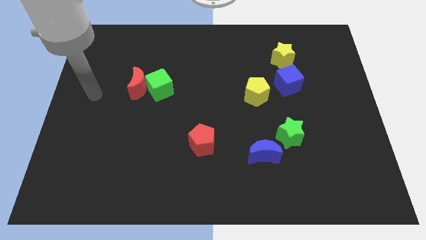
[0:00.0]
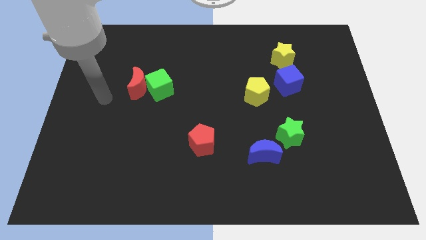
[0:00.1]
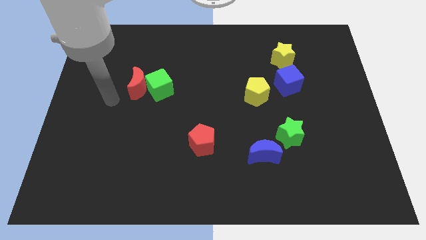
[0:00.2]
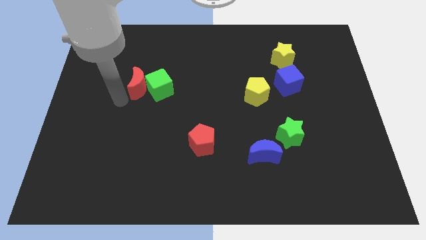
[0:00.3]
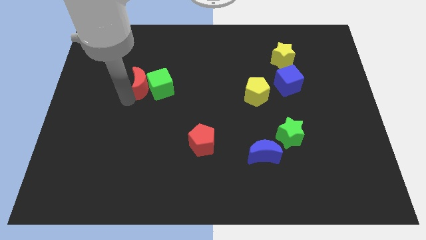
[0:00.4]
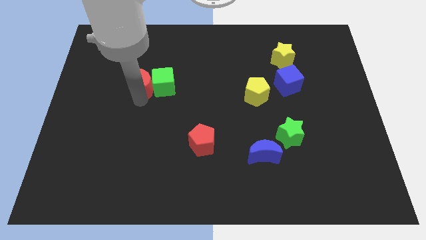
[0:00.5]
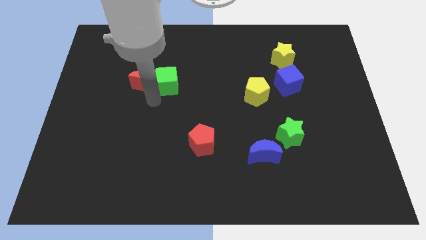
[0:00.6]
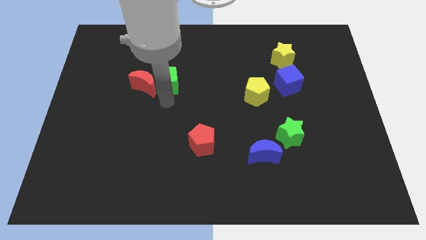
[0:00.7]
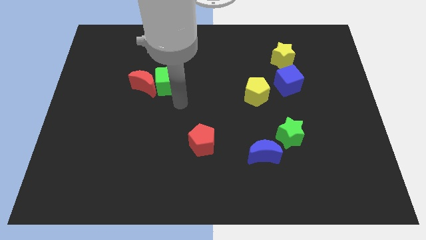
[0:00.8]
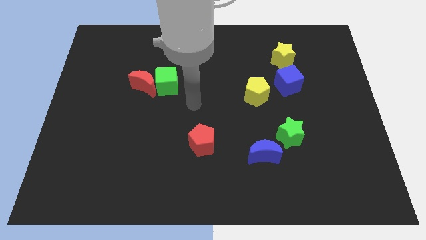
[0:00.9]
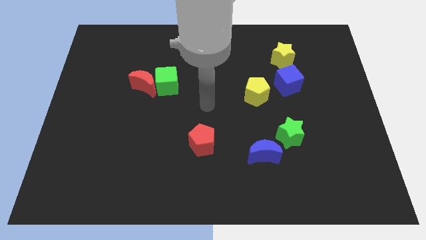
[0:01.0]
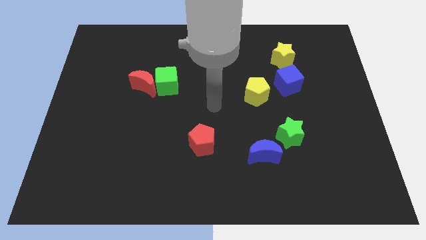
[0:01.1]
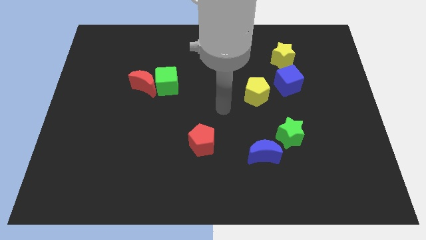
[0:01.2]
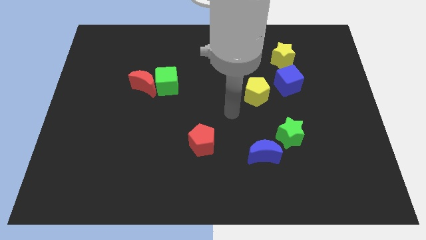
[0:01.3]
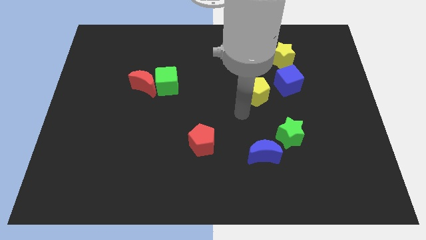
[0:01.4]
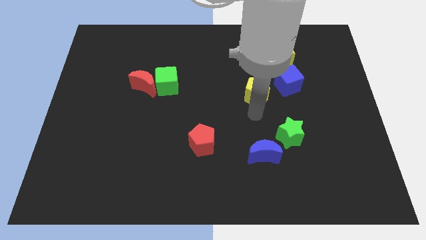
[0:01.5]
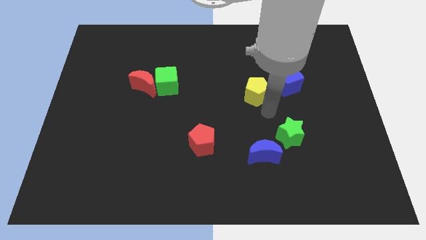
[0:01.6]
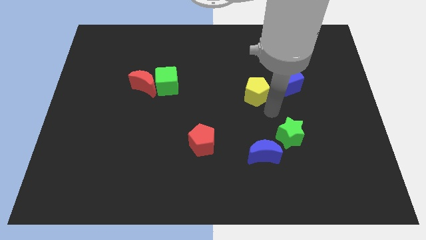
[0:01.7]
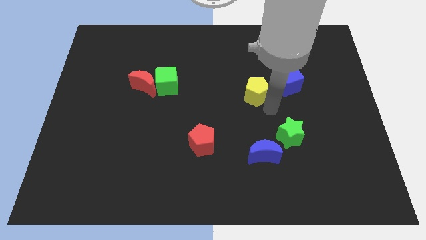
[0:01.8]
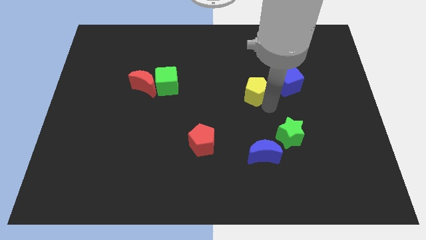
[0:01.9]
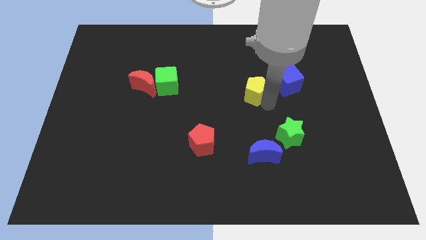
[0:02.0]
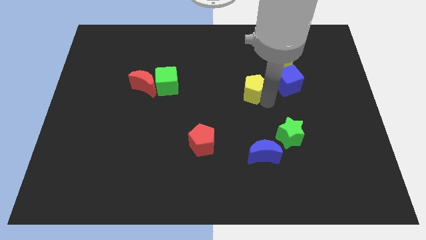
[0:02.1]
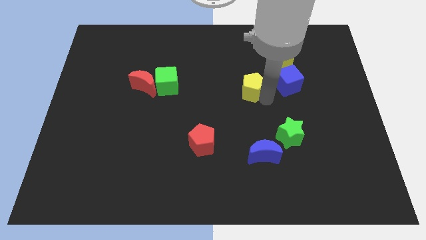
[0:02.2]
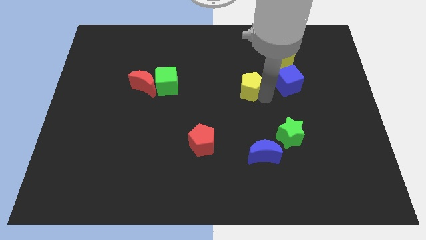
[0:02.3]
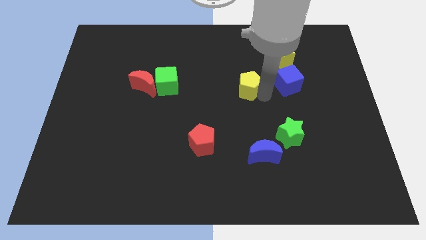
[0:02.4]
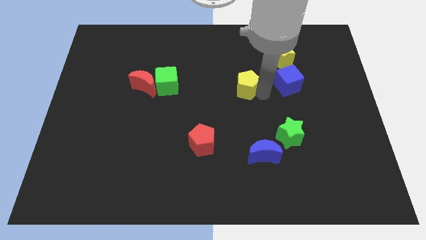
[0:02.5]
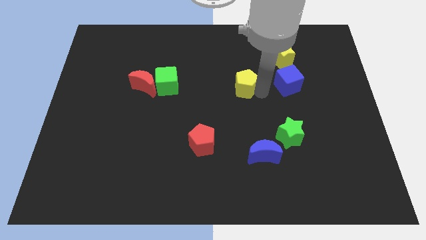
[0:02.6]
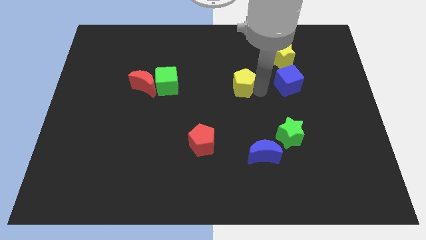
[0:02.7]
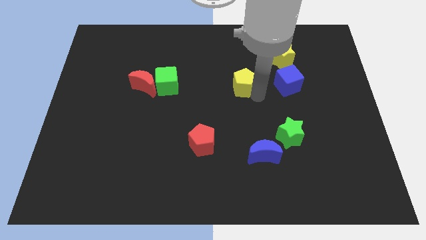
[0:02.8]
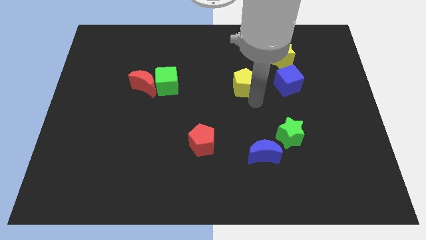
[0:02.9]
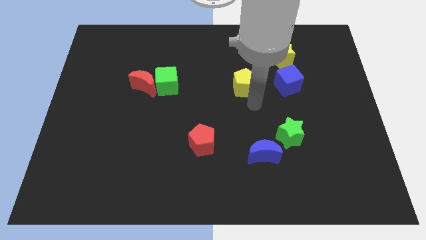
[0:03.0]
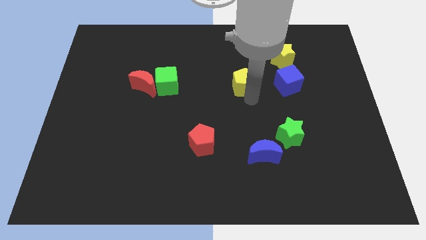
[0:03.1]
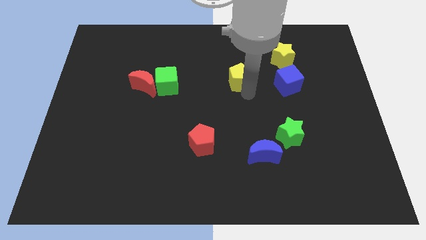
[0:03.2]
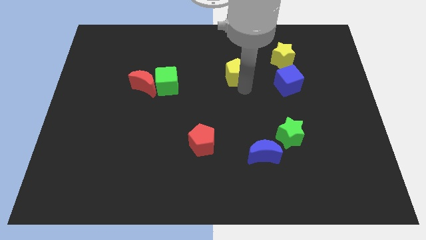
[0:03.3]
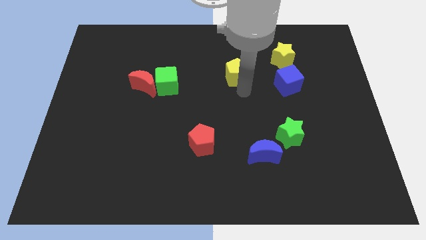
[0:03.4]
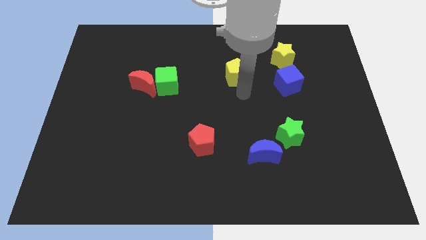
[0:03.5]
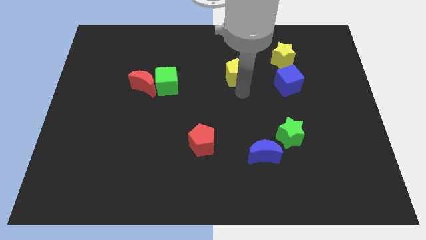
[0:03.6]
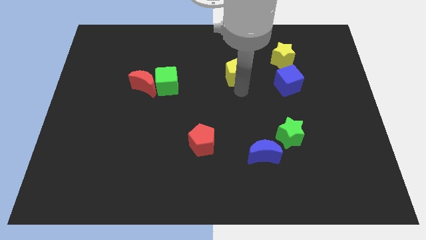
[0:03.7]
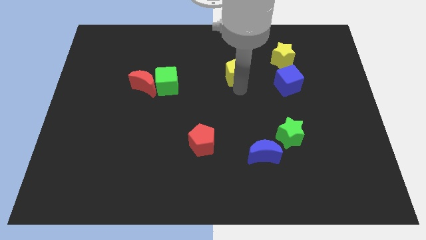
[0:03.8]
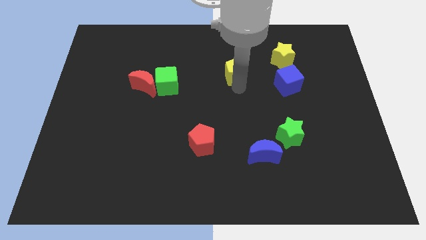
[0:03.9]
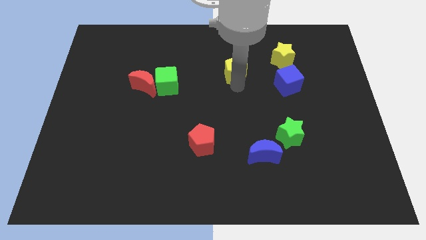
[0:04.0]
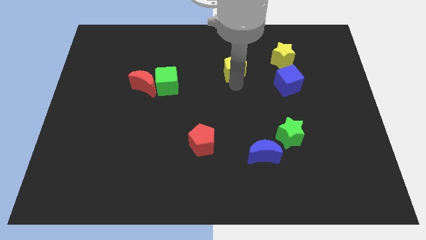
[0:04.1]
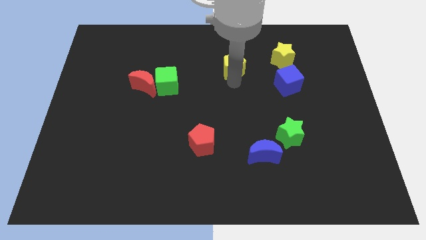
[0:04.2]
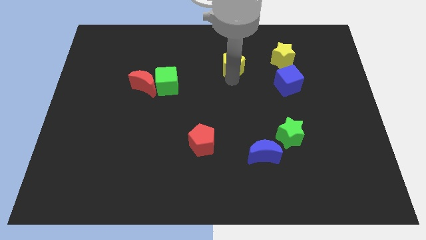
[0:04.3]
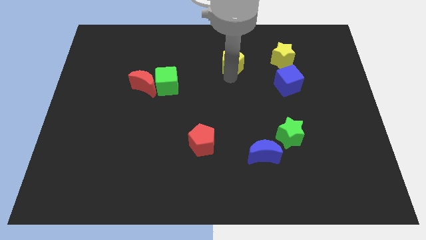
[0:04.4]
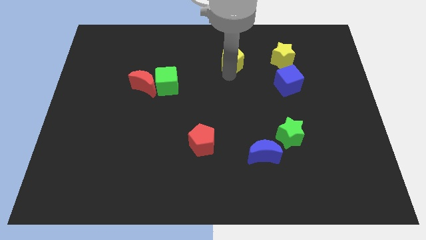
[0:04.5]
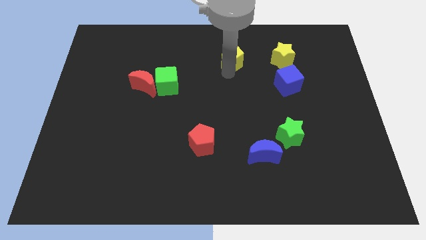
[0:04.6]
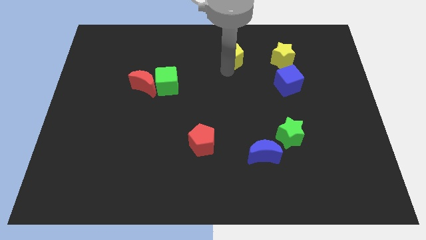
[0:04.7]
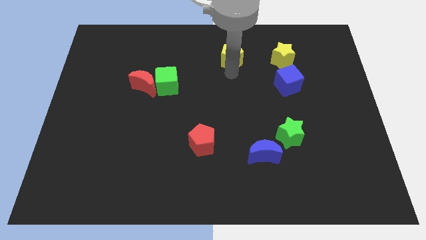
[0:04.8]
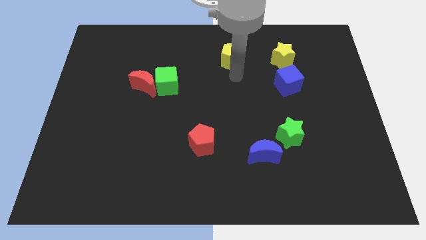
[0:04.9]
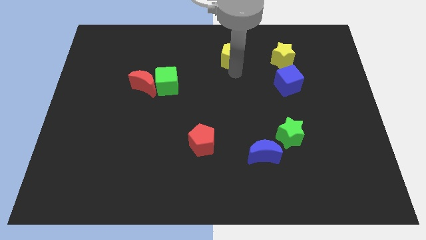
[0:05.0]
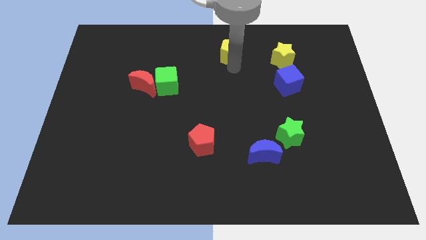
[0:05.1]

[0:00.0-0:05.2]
put the yellow pentagon to the top side

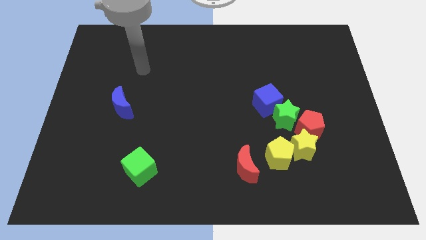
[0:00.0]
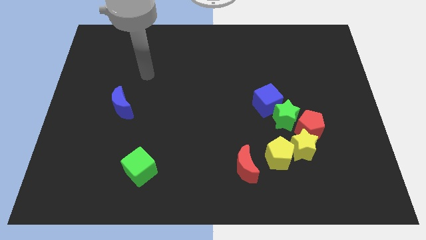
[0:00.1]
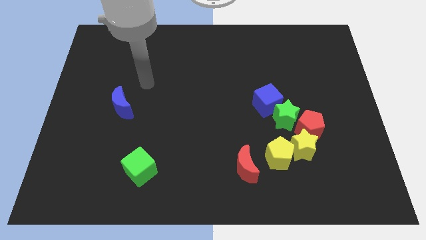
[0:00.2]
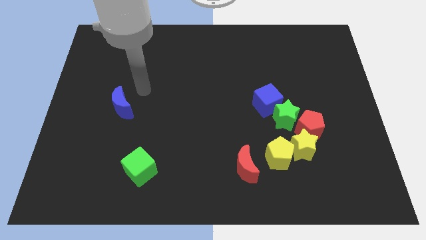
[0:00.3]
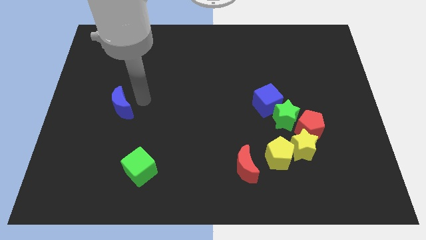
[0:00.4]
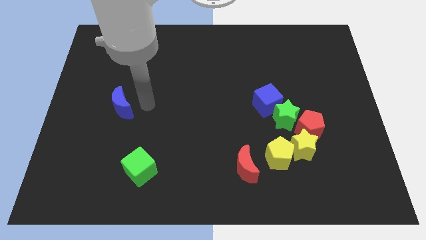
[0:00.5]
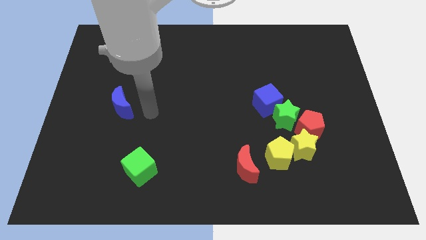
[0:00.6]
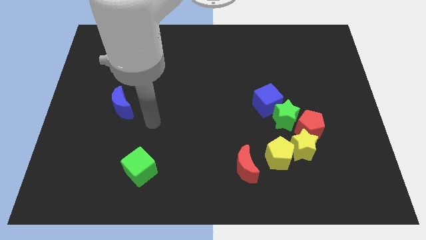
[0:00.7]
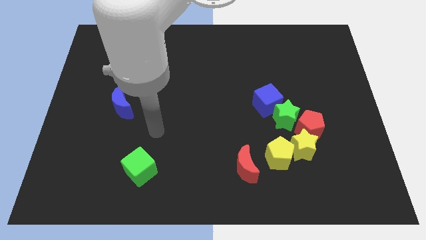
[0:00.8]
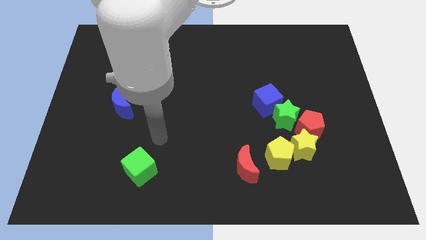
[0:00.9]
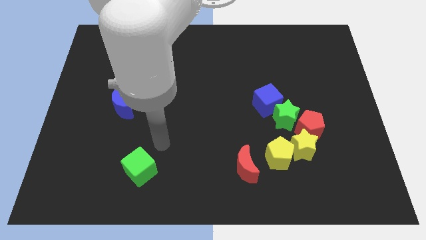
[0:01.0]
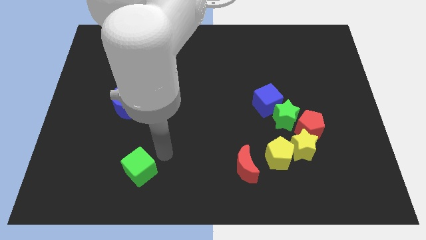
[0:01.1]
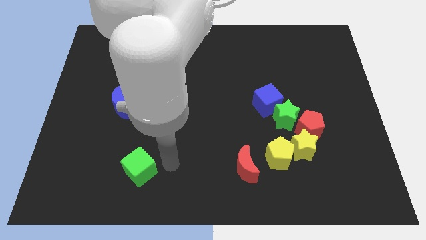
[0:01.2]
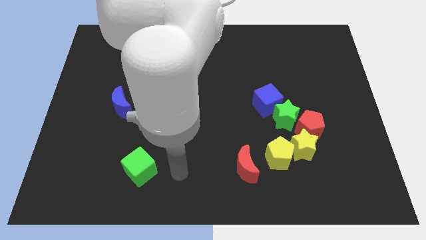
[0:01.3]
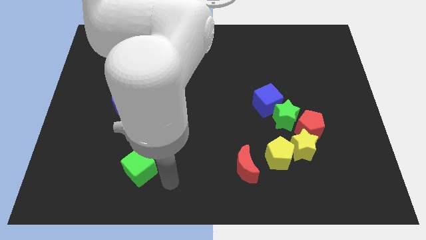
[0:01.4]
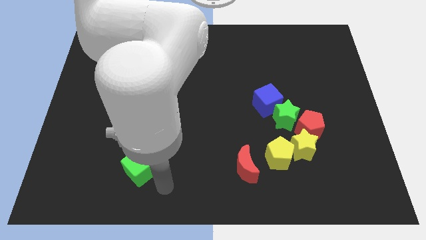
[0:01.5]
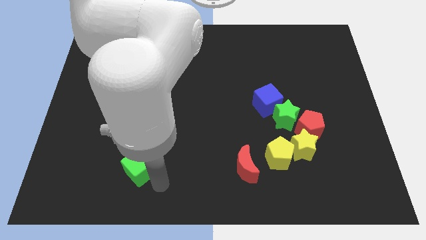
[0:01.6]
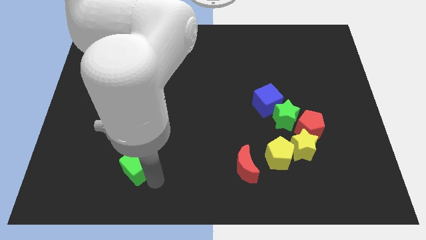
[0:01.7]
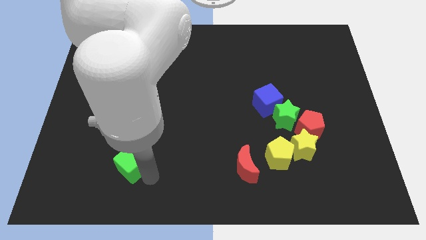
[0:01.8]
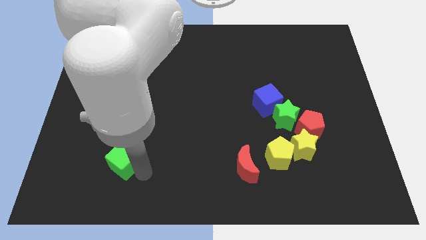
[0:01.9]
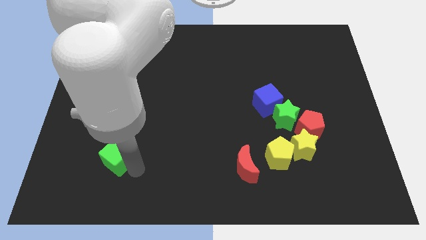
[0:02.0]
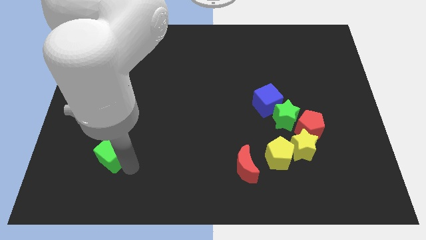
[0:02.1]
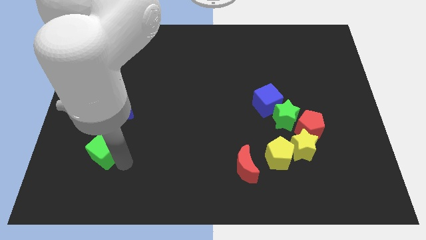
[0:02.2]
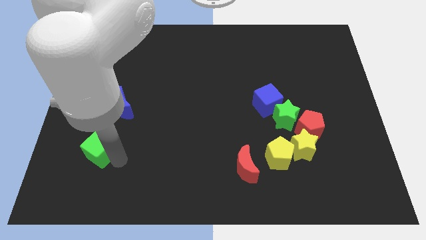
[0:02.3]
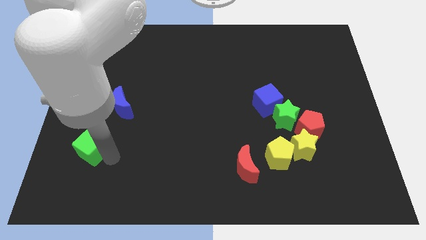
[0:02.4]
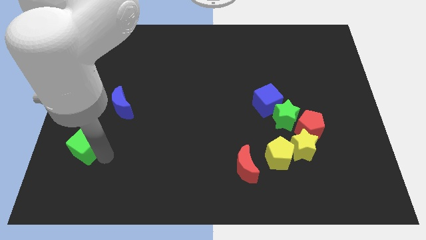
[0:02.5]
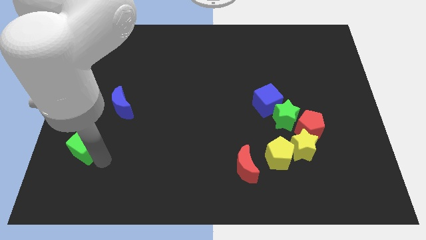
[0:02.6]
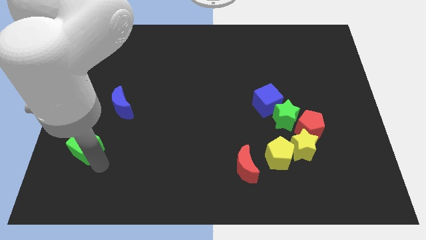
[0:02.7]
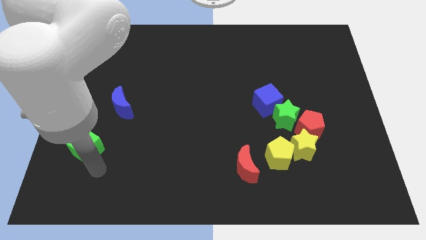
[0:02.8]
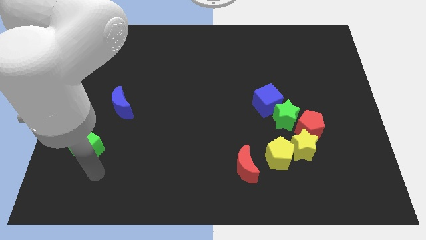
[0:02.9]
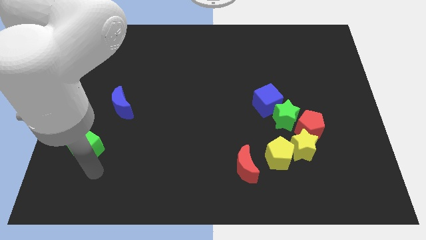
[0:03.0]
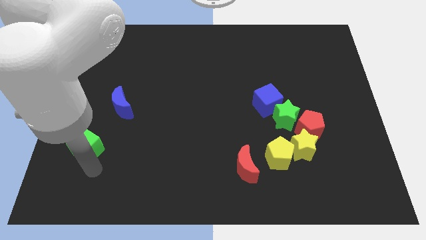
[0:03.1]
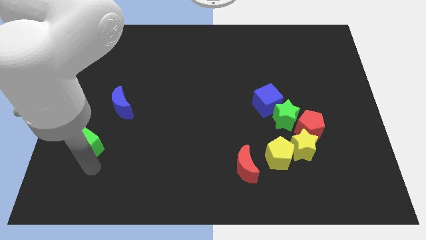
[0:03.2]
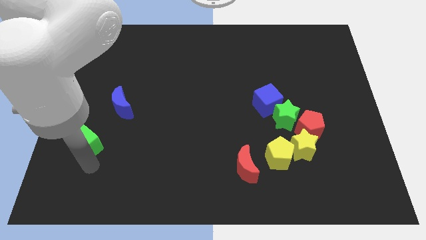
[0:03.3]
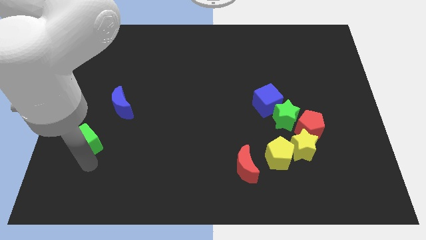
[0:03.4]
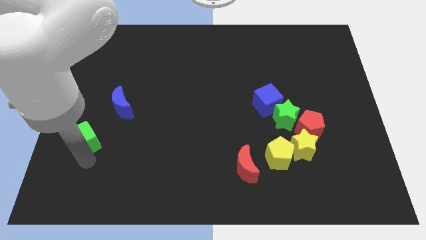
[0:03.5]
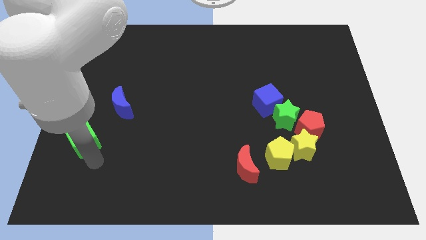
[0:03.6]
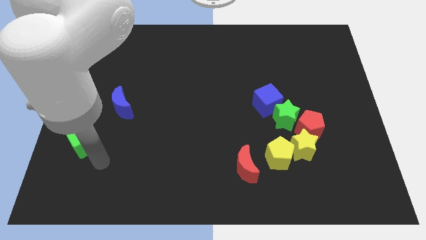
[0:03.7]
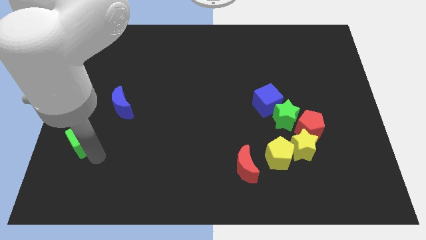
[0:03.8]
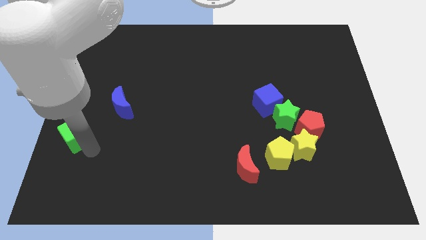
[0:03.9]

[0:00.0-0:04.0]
move the green cube to the left side
